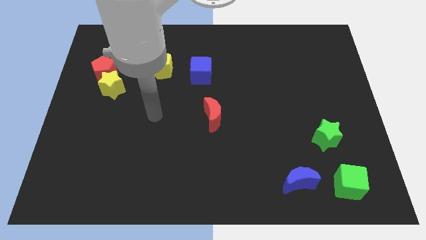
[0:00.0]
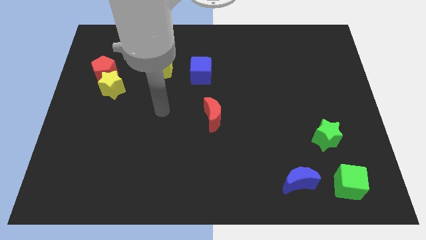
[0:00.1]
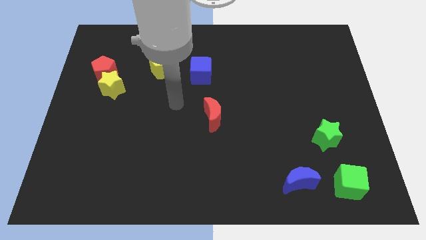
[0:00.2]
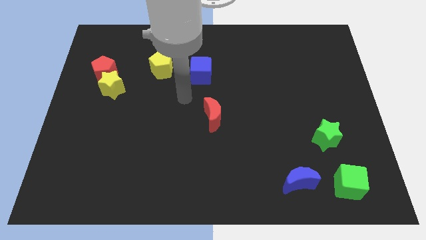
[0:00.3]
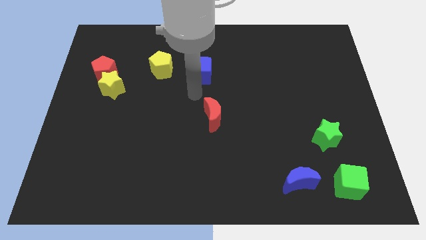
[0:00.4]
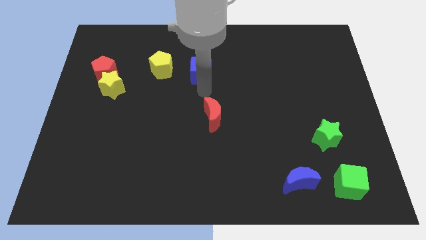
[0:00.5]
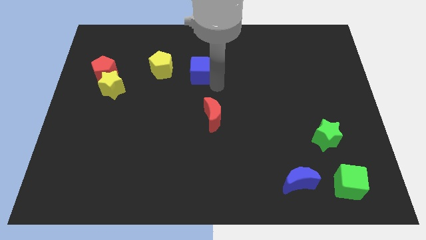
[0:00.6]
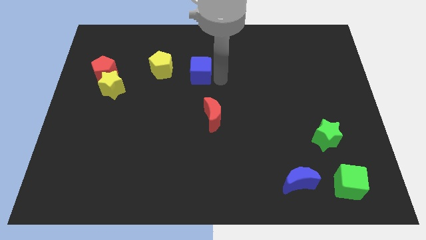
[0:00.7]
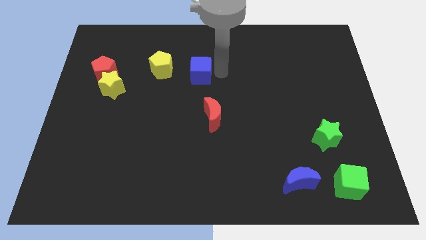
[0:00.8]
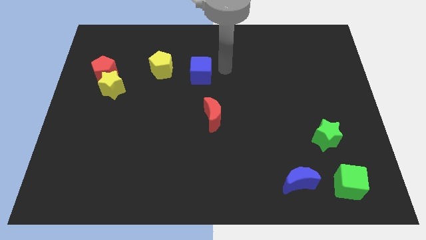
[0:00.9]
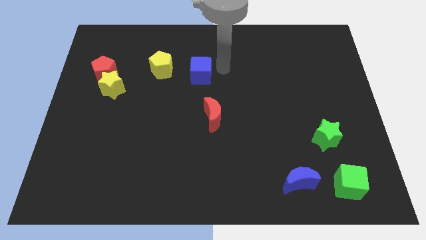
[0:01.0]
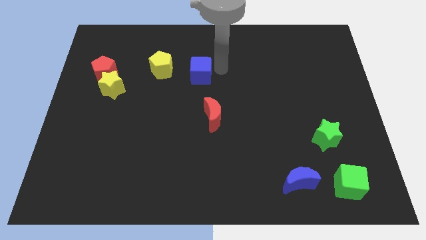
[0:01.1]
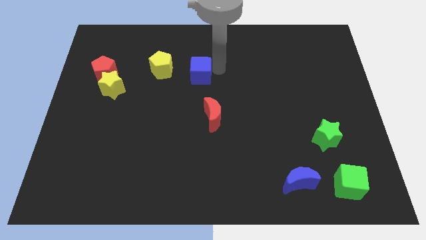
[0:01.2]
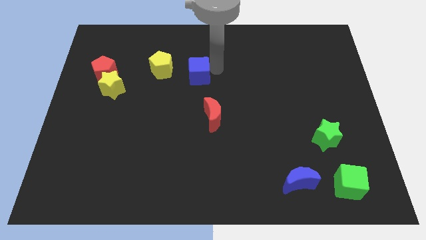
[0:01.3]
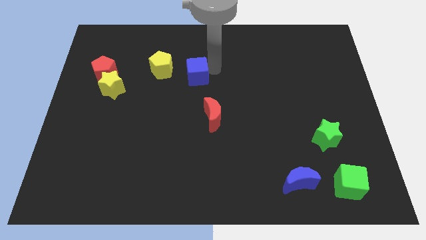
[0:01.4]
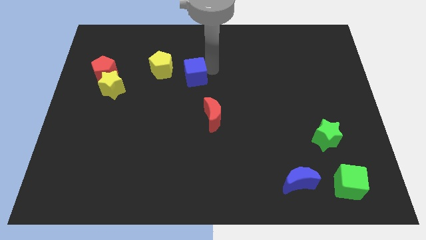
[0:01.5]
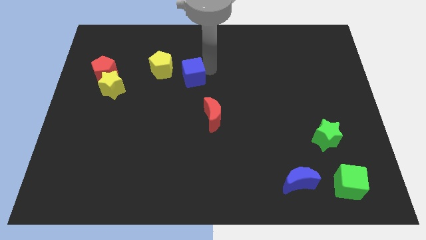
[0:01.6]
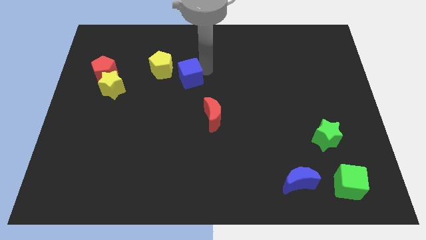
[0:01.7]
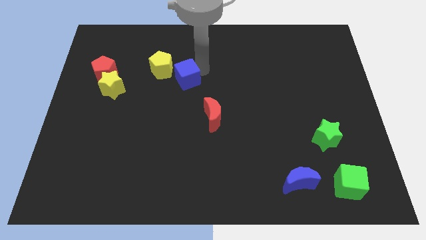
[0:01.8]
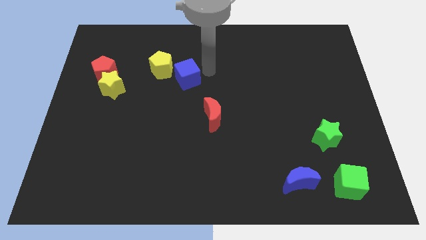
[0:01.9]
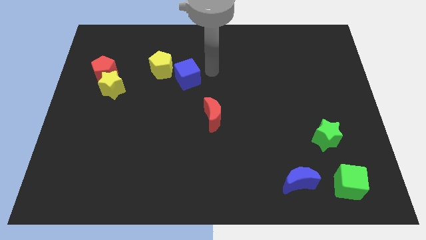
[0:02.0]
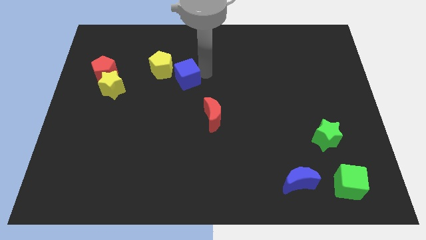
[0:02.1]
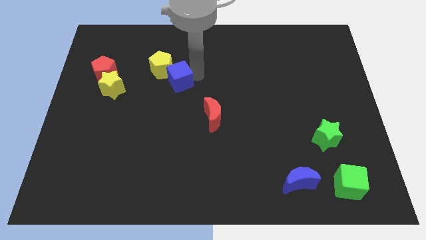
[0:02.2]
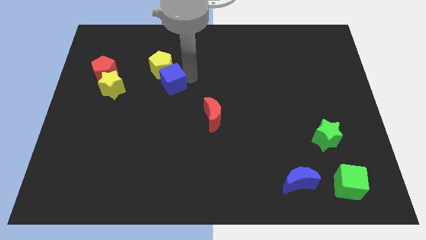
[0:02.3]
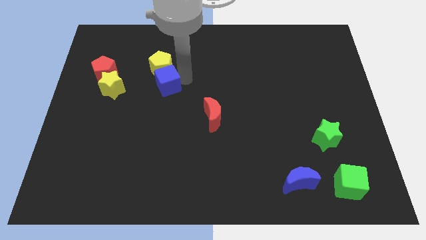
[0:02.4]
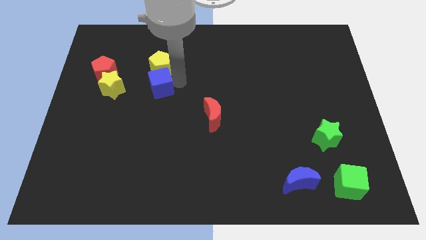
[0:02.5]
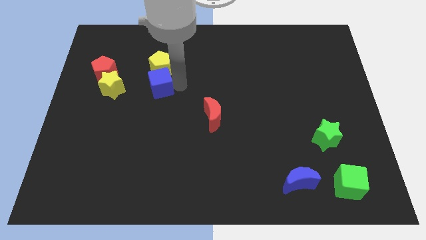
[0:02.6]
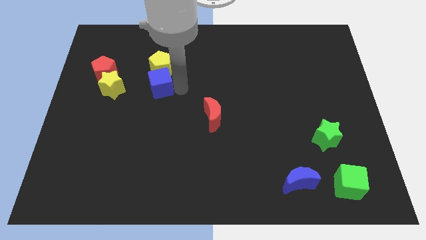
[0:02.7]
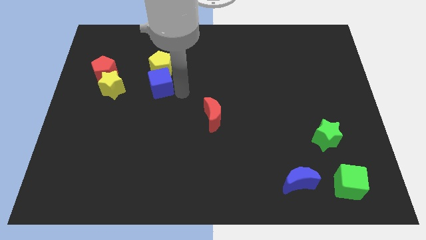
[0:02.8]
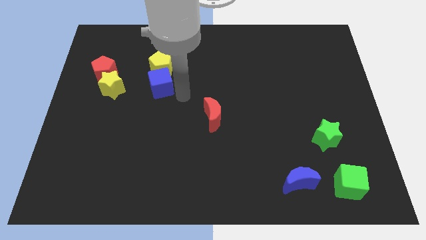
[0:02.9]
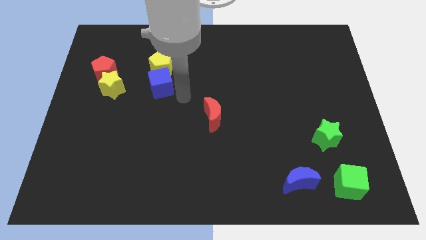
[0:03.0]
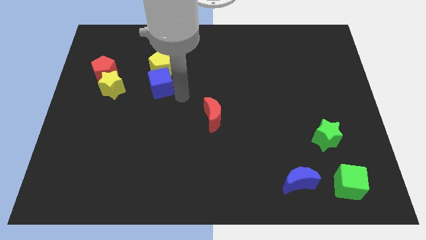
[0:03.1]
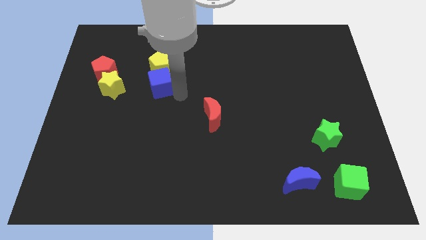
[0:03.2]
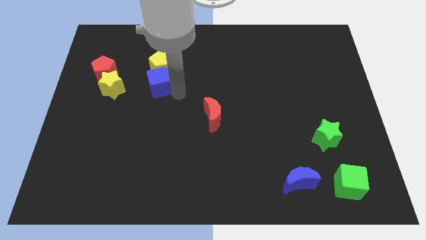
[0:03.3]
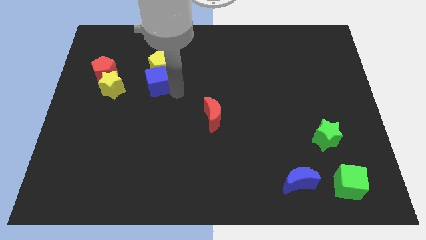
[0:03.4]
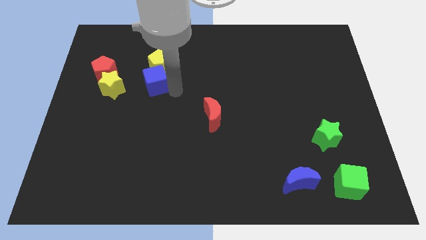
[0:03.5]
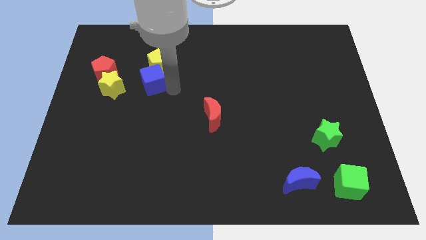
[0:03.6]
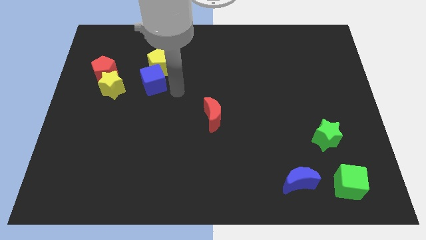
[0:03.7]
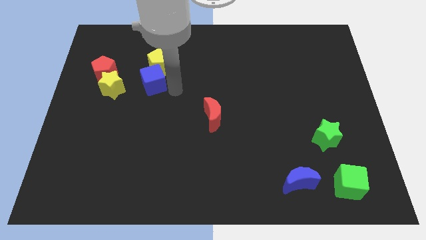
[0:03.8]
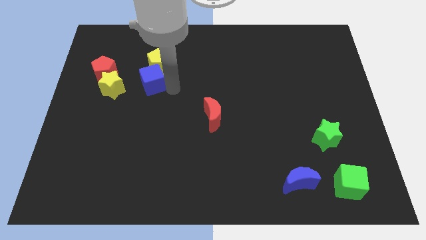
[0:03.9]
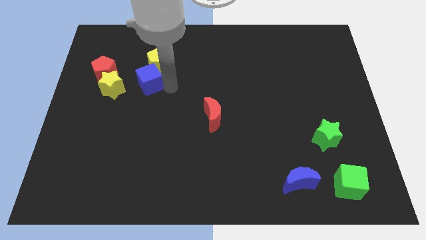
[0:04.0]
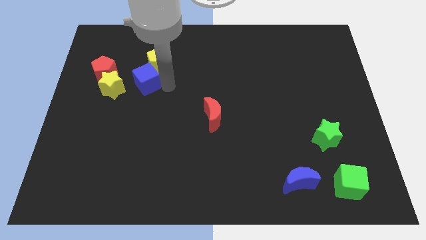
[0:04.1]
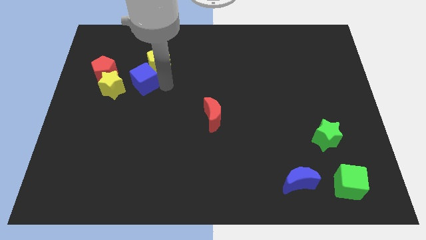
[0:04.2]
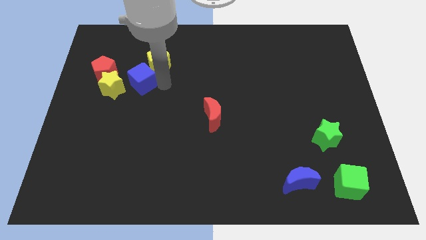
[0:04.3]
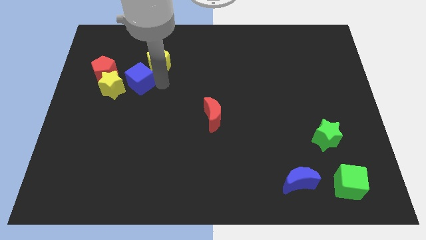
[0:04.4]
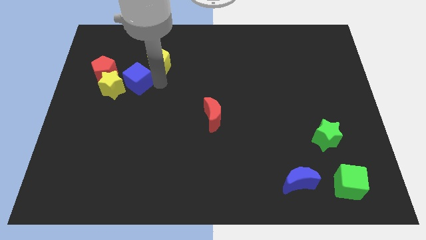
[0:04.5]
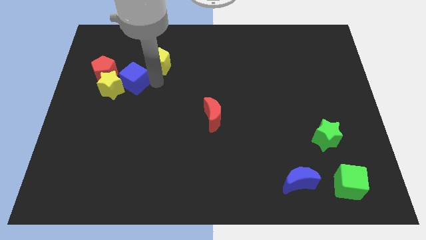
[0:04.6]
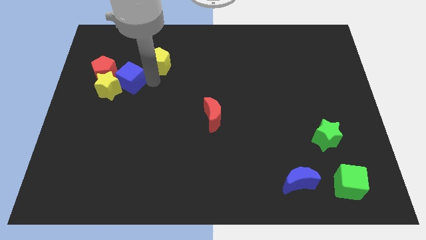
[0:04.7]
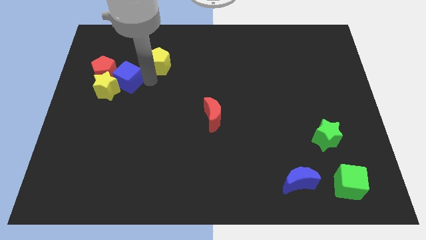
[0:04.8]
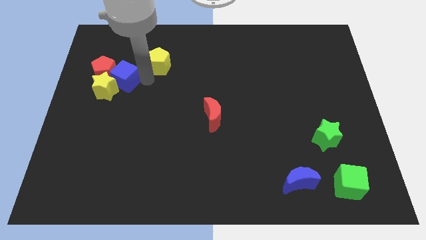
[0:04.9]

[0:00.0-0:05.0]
put the blue cube to the red pentagon

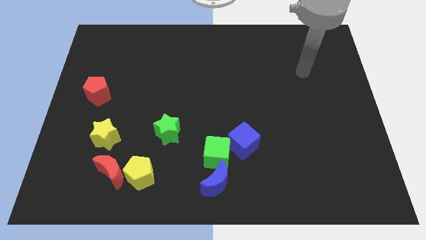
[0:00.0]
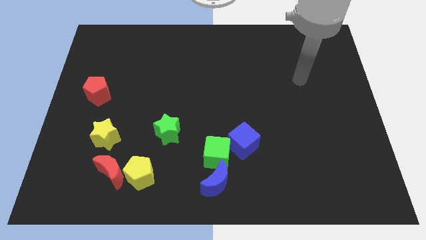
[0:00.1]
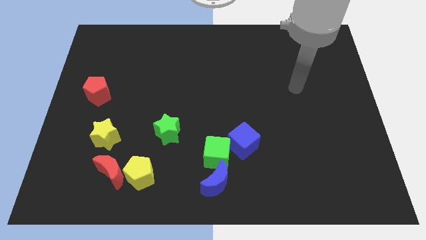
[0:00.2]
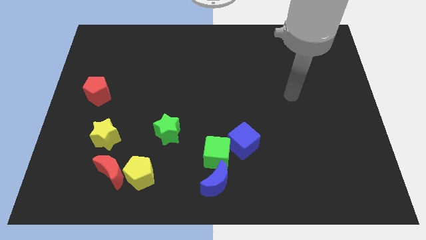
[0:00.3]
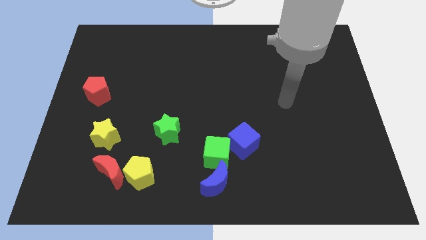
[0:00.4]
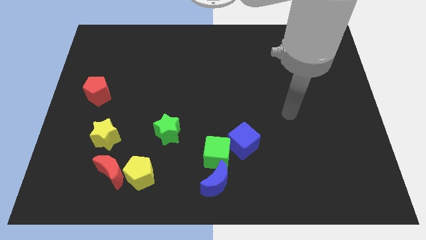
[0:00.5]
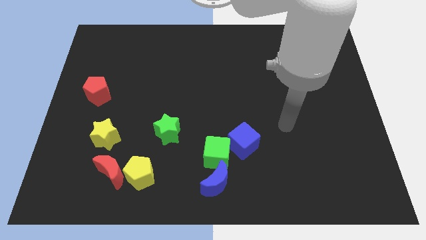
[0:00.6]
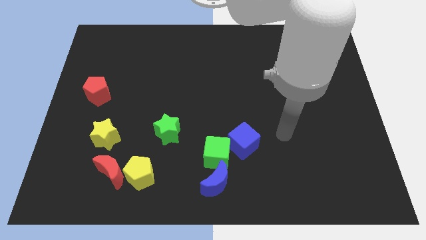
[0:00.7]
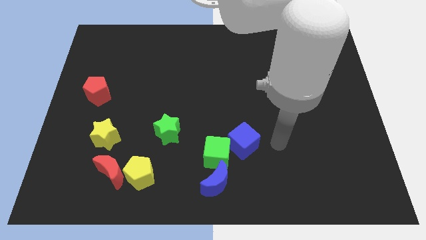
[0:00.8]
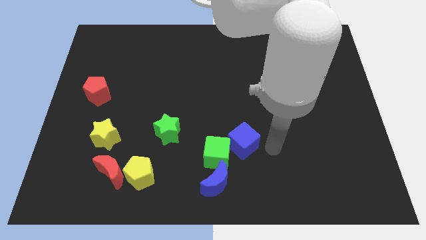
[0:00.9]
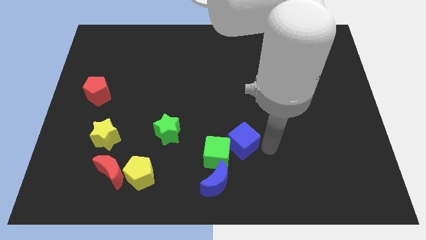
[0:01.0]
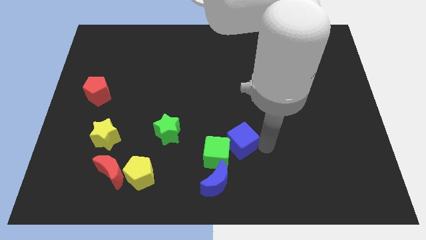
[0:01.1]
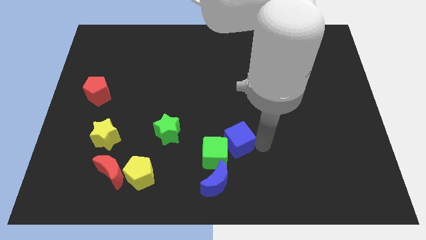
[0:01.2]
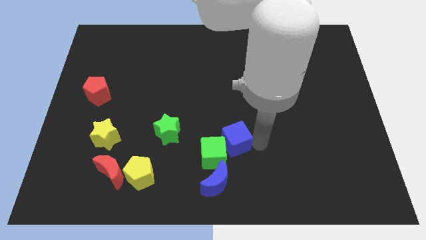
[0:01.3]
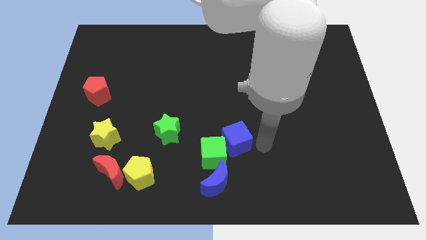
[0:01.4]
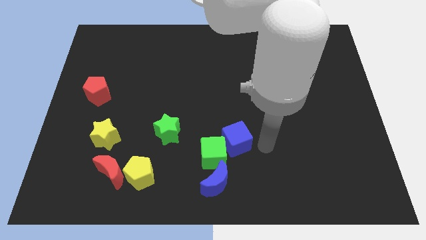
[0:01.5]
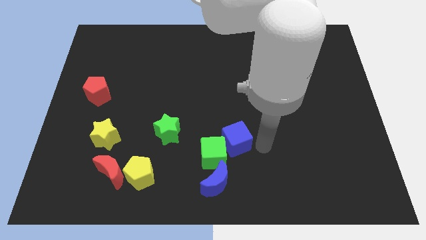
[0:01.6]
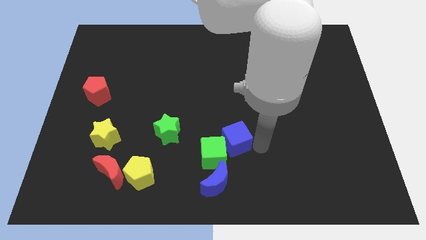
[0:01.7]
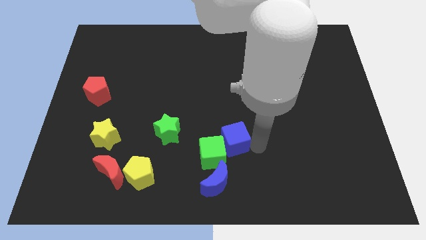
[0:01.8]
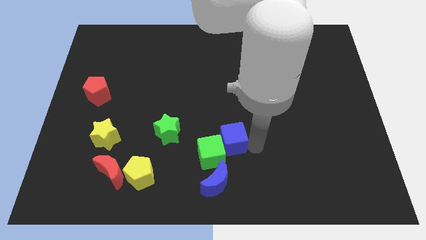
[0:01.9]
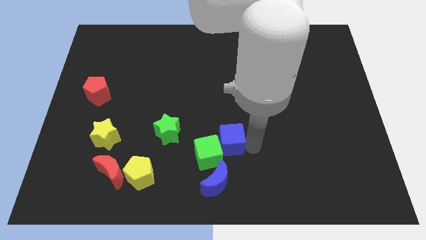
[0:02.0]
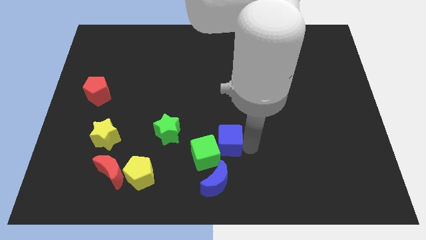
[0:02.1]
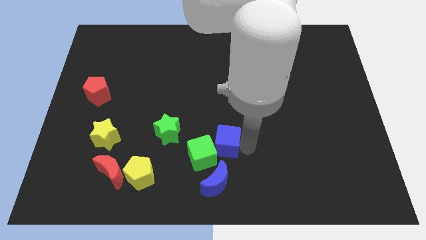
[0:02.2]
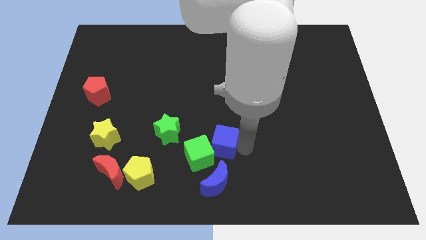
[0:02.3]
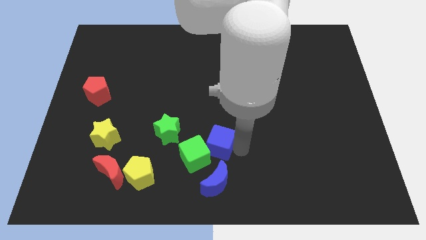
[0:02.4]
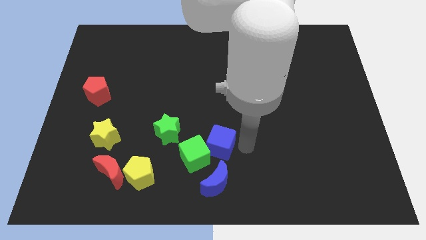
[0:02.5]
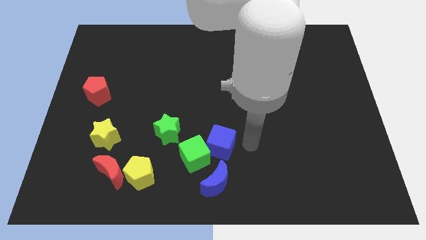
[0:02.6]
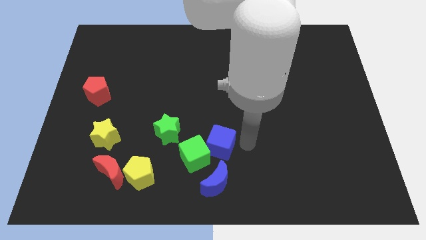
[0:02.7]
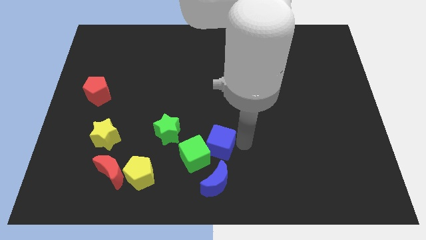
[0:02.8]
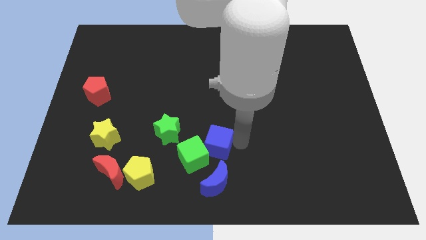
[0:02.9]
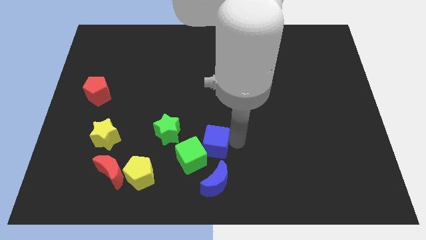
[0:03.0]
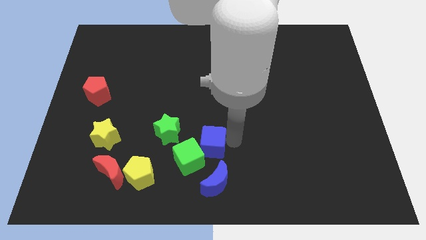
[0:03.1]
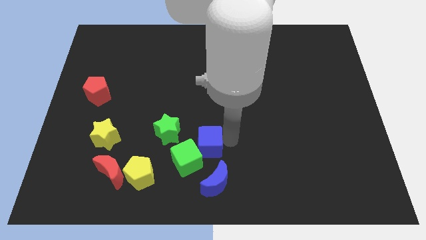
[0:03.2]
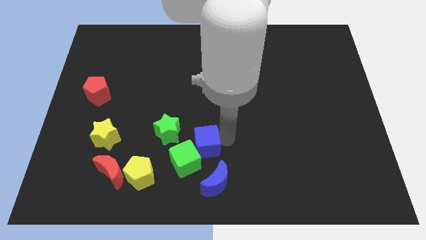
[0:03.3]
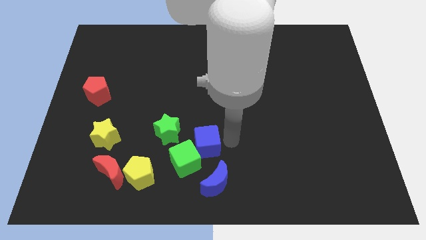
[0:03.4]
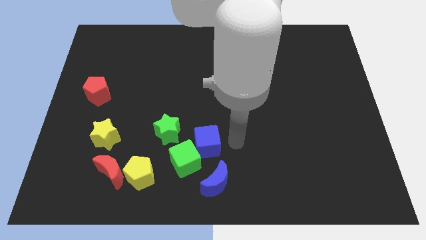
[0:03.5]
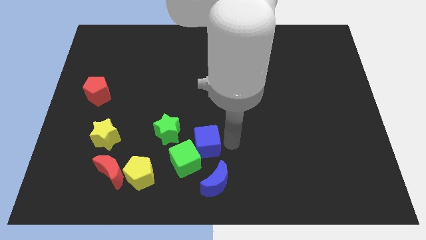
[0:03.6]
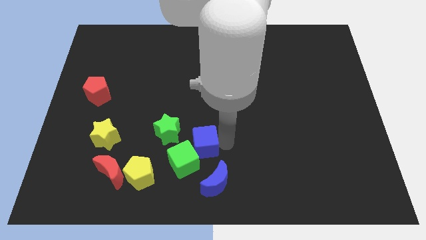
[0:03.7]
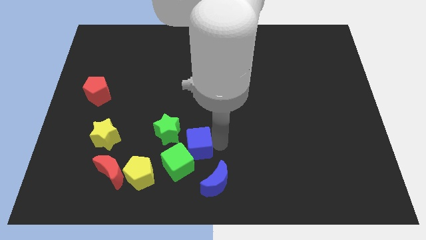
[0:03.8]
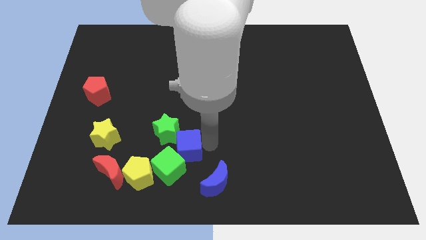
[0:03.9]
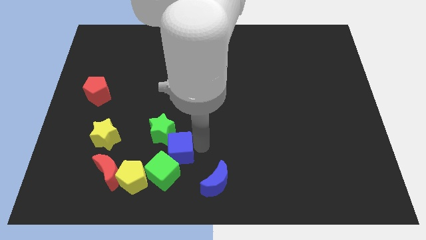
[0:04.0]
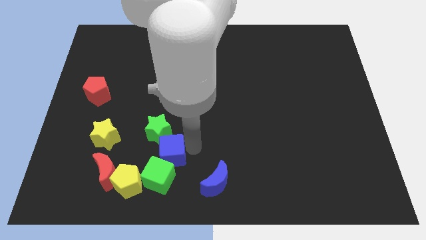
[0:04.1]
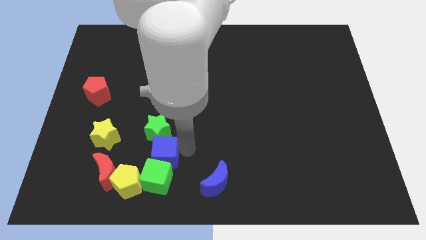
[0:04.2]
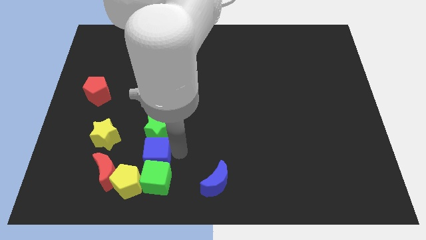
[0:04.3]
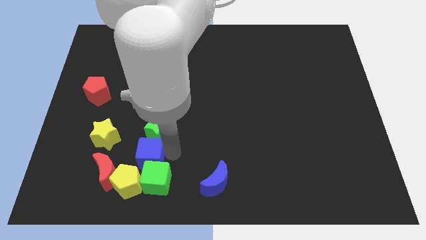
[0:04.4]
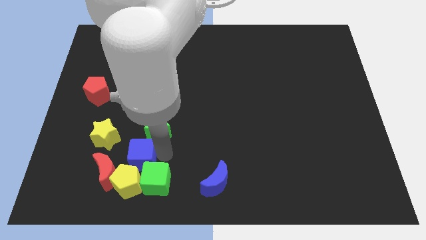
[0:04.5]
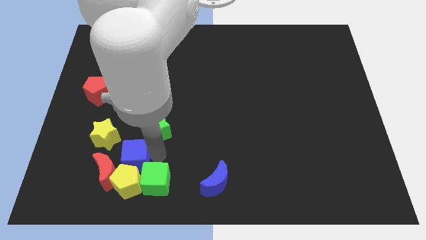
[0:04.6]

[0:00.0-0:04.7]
move the blue cube close to the red moon
